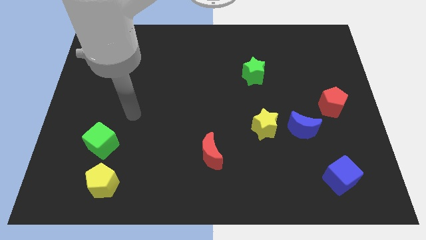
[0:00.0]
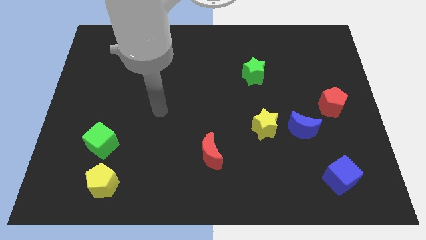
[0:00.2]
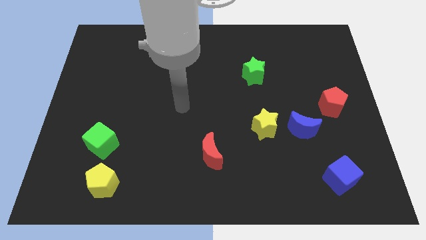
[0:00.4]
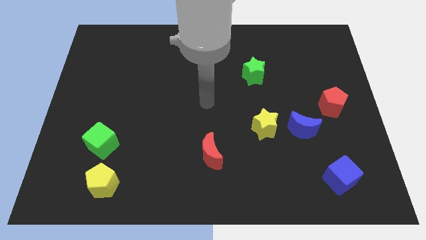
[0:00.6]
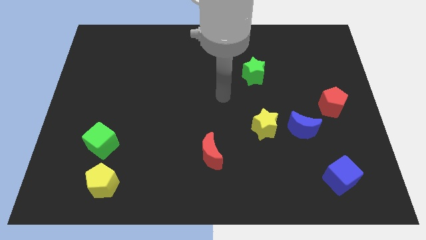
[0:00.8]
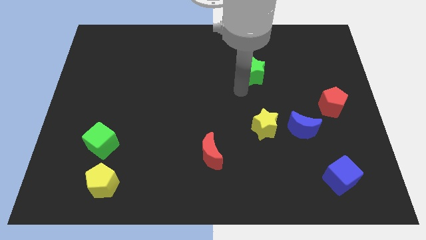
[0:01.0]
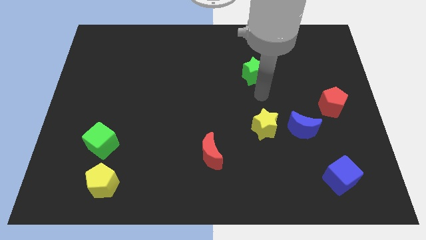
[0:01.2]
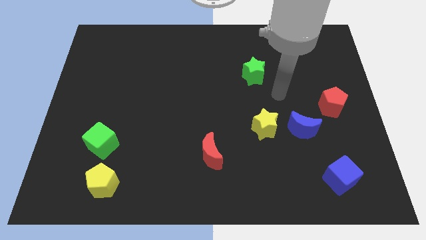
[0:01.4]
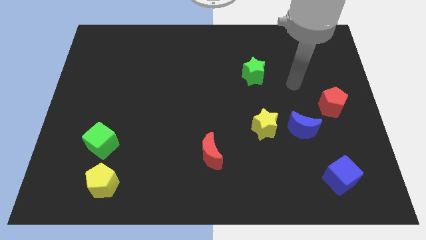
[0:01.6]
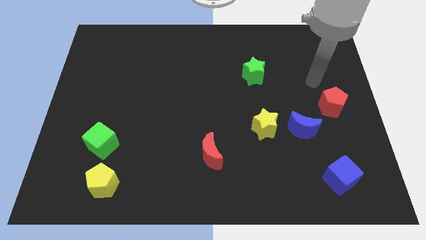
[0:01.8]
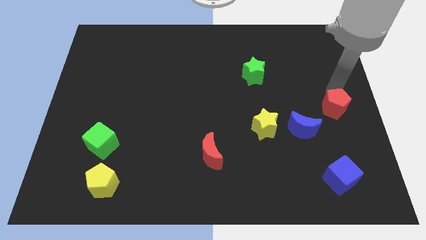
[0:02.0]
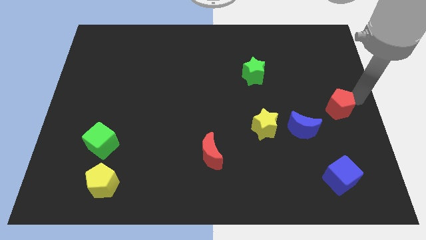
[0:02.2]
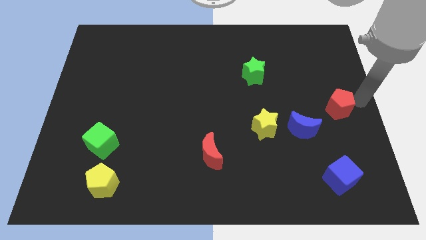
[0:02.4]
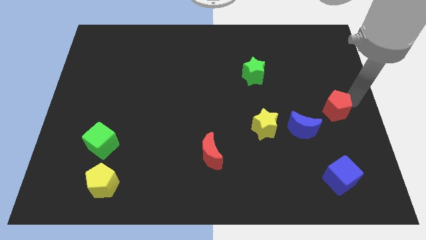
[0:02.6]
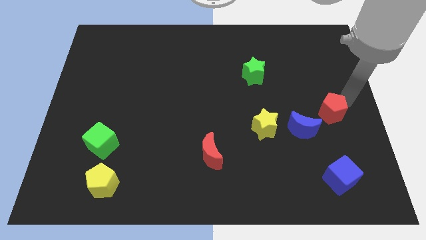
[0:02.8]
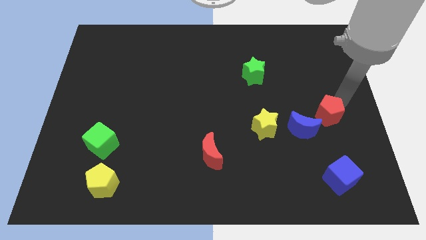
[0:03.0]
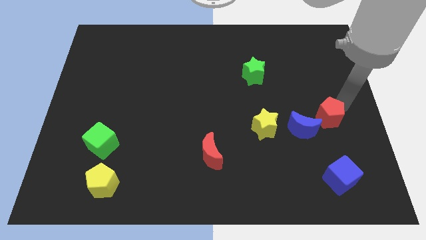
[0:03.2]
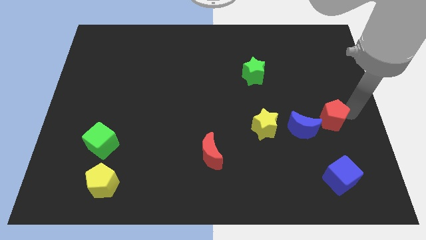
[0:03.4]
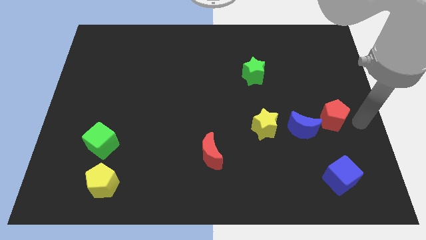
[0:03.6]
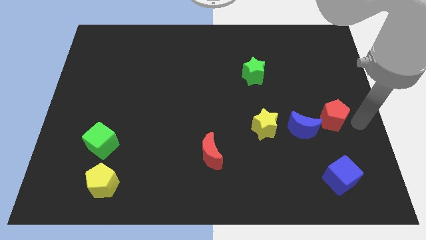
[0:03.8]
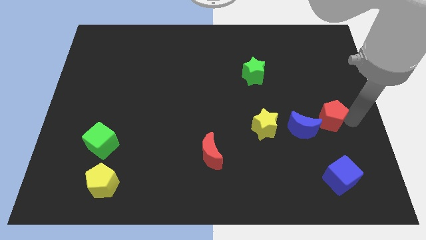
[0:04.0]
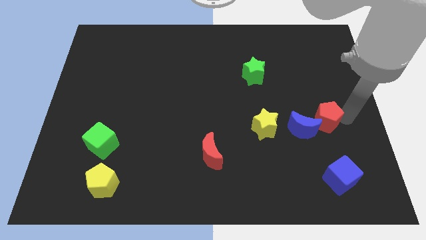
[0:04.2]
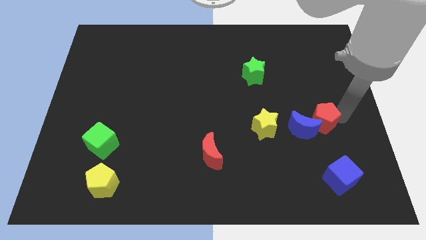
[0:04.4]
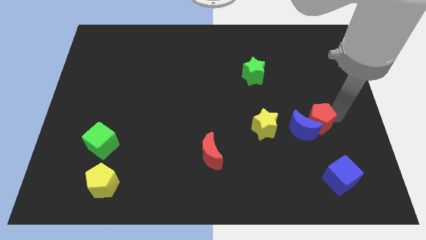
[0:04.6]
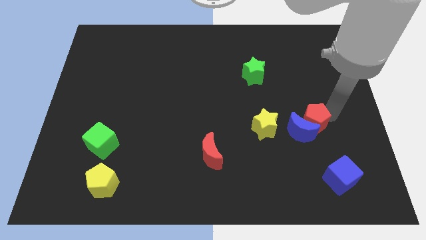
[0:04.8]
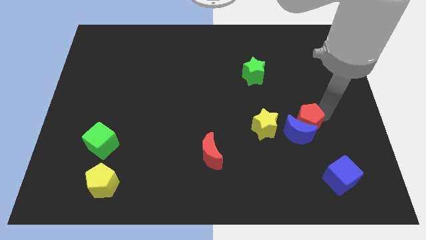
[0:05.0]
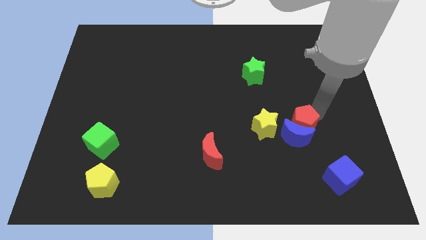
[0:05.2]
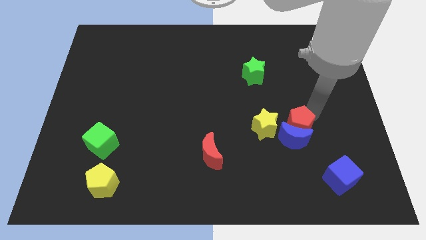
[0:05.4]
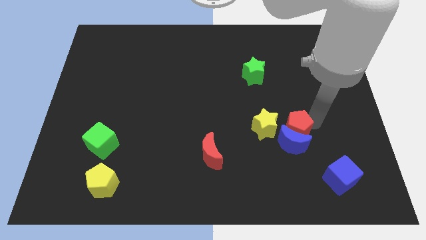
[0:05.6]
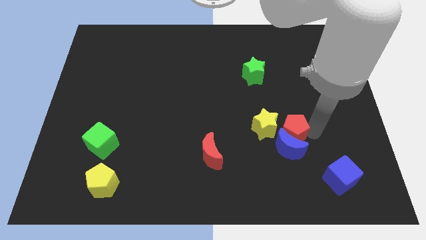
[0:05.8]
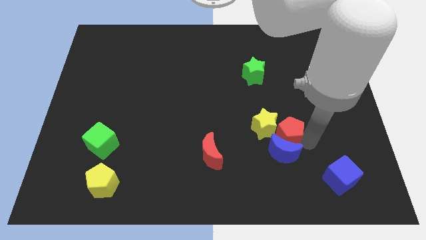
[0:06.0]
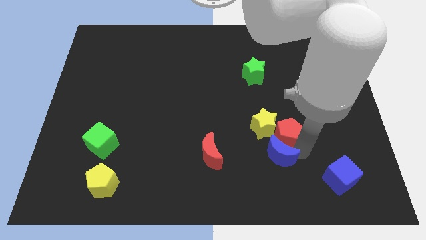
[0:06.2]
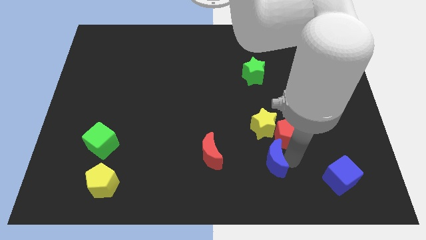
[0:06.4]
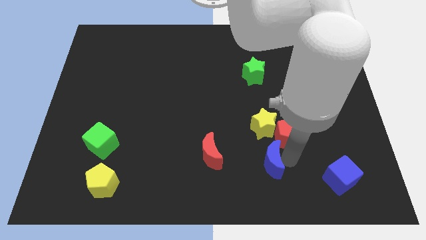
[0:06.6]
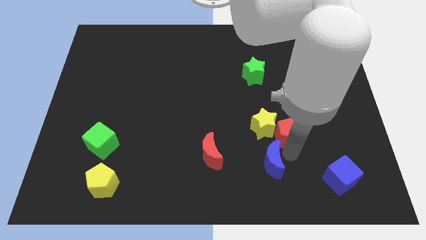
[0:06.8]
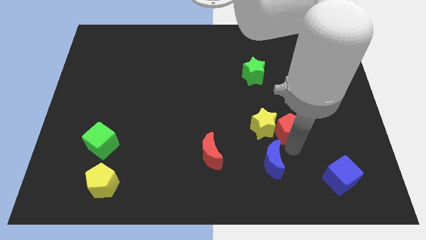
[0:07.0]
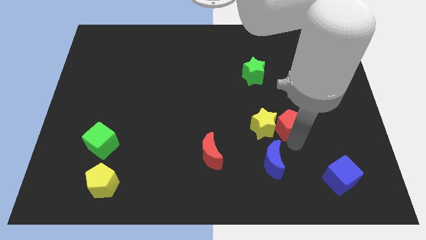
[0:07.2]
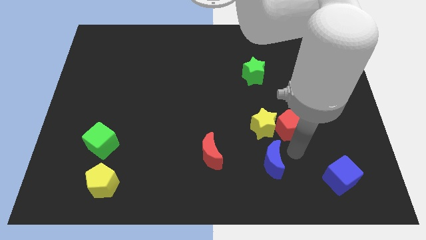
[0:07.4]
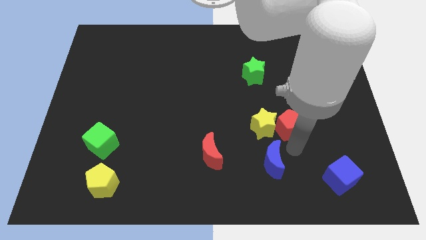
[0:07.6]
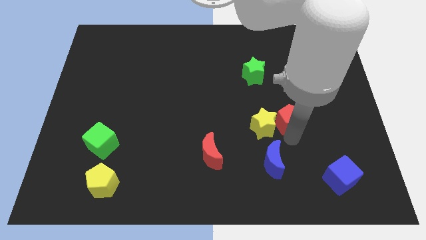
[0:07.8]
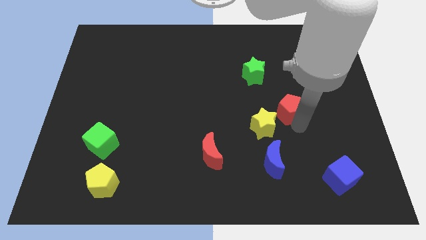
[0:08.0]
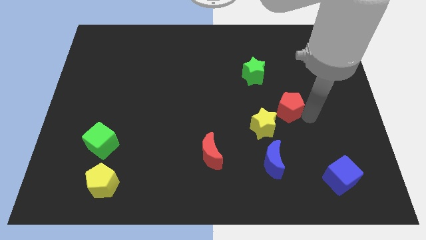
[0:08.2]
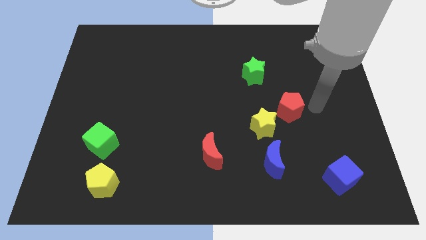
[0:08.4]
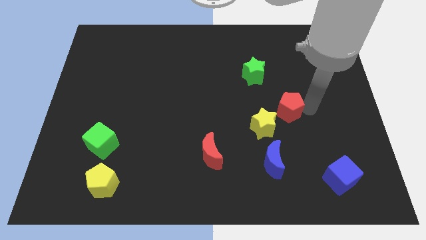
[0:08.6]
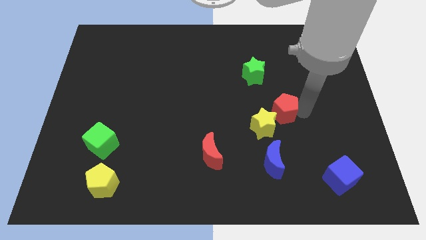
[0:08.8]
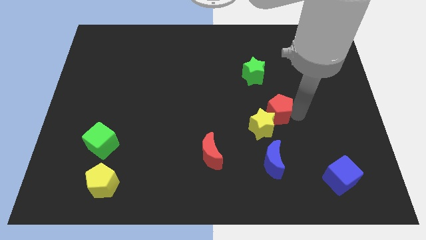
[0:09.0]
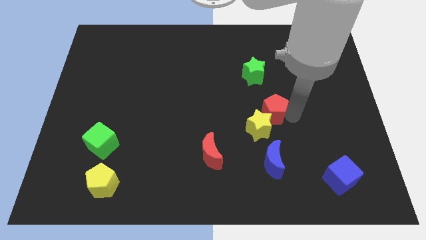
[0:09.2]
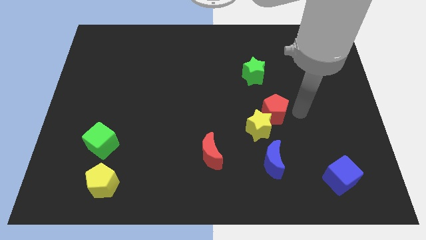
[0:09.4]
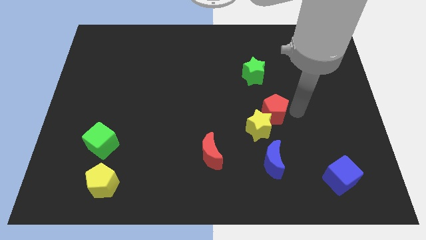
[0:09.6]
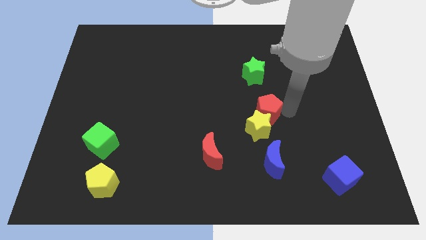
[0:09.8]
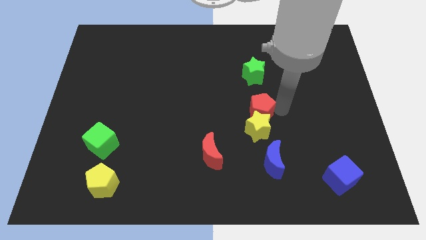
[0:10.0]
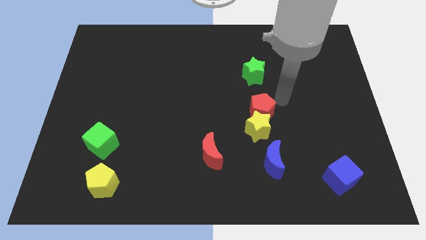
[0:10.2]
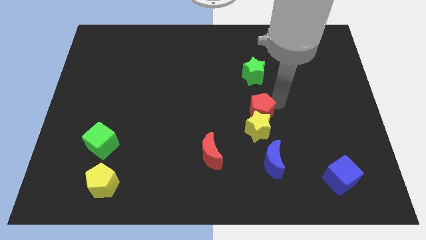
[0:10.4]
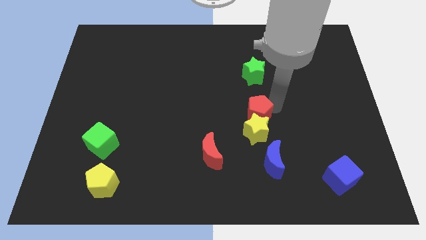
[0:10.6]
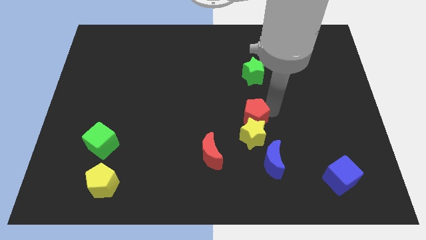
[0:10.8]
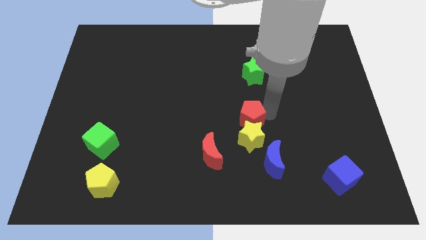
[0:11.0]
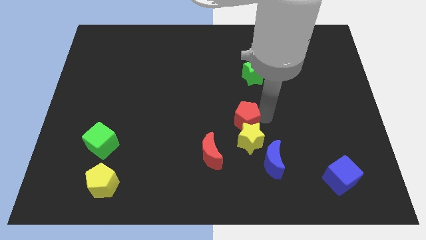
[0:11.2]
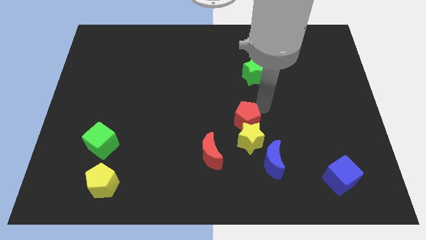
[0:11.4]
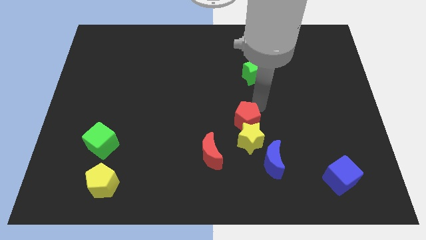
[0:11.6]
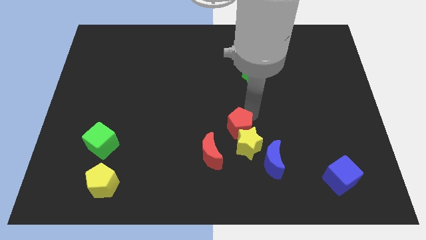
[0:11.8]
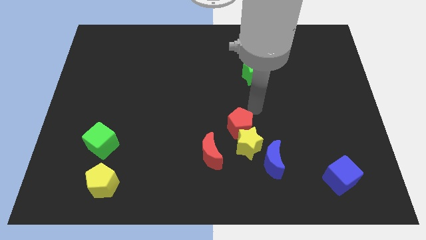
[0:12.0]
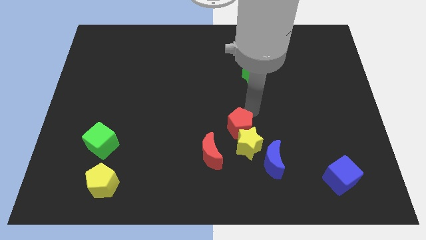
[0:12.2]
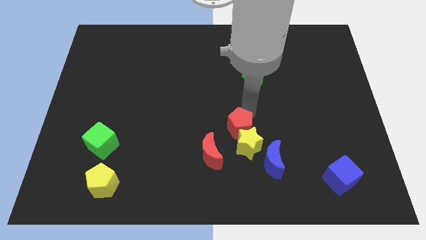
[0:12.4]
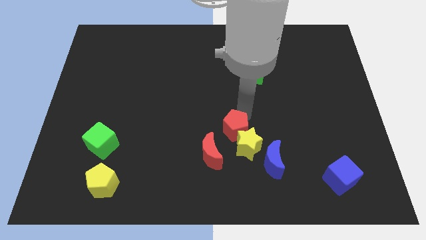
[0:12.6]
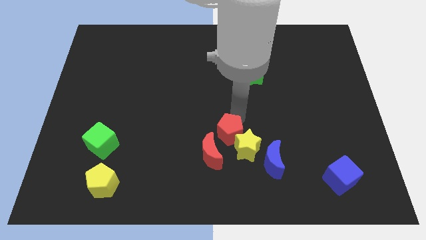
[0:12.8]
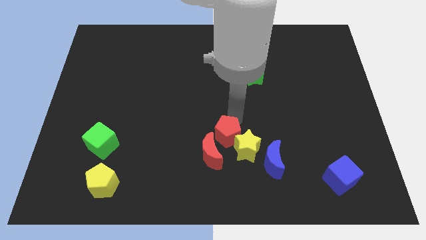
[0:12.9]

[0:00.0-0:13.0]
move the red pentagon towards the red moon

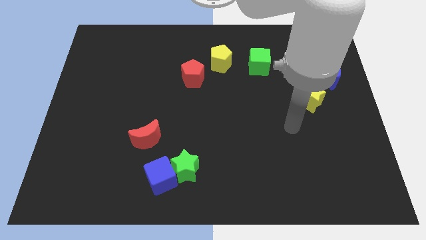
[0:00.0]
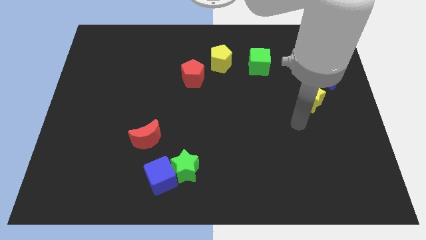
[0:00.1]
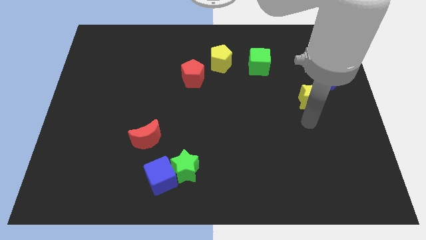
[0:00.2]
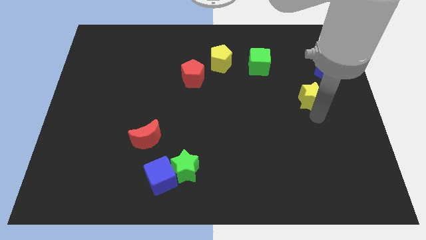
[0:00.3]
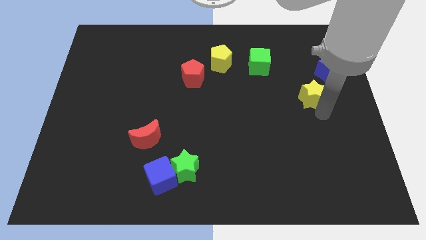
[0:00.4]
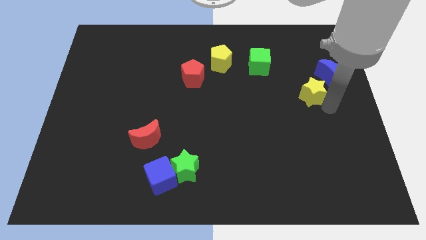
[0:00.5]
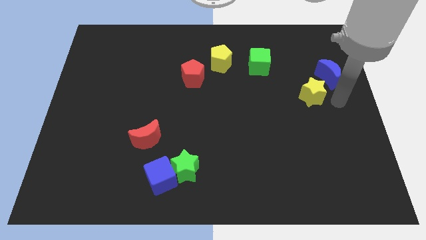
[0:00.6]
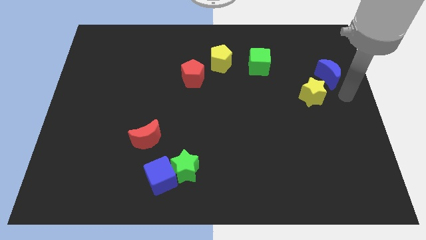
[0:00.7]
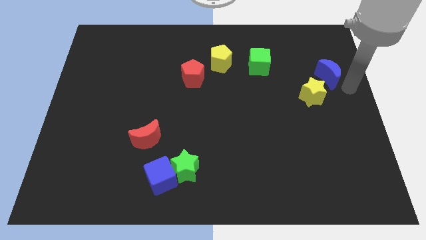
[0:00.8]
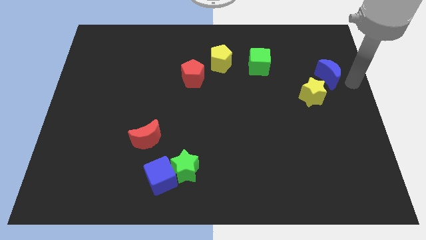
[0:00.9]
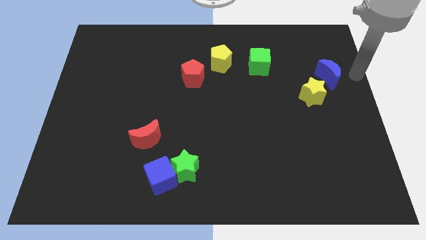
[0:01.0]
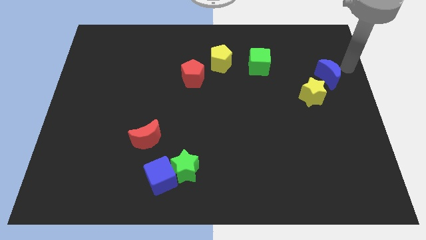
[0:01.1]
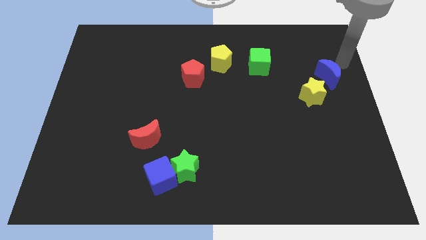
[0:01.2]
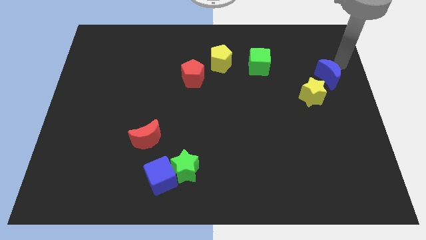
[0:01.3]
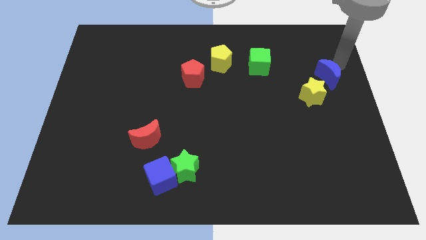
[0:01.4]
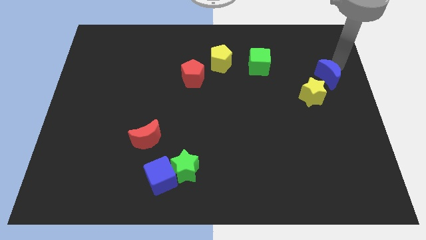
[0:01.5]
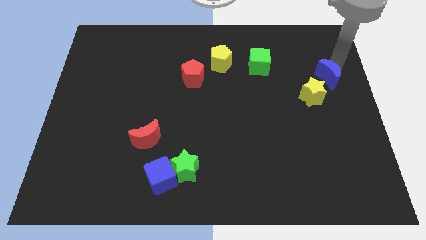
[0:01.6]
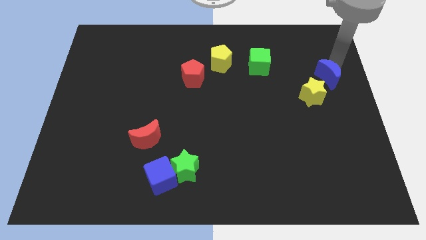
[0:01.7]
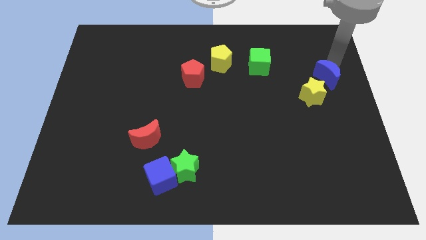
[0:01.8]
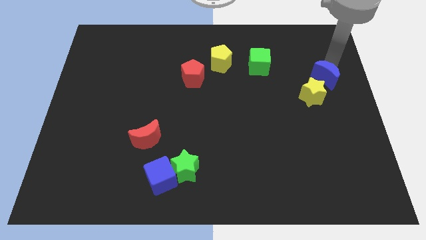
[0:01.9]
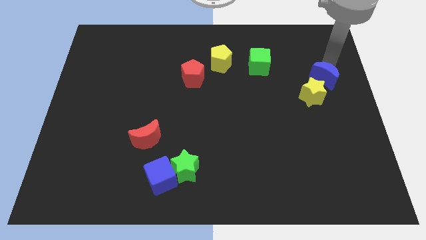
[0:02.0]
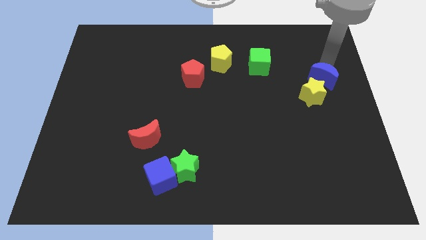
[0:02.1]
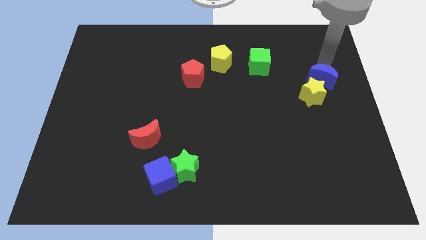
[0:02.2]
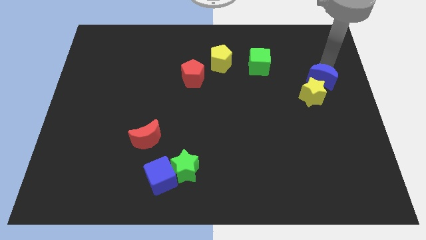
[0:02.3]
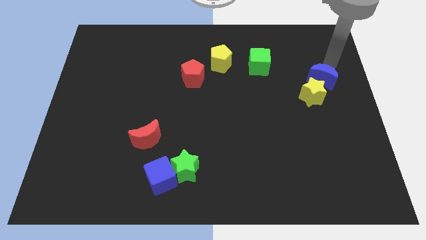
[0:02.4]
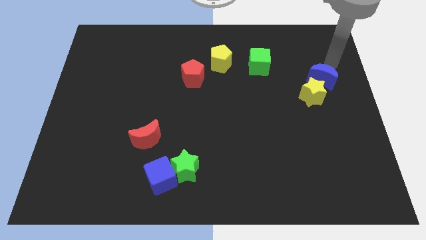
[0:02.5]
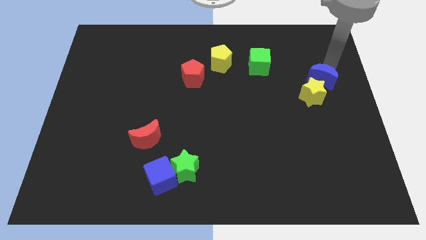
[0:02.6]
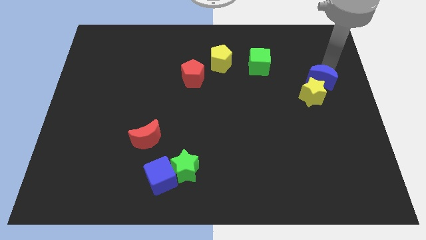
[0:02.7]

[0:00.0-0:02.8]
put the blue moon to the yellow star
